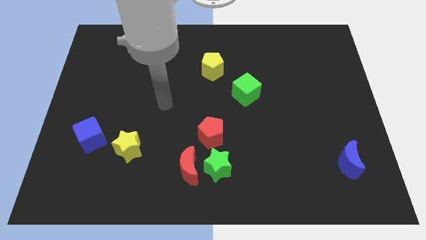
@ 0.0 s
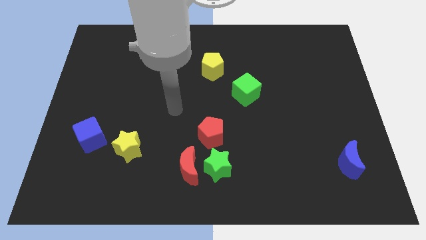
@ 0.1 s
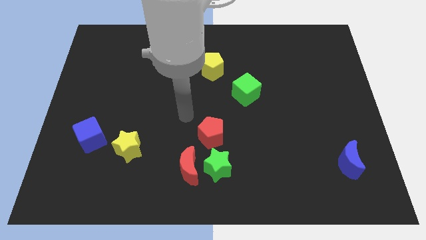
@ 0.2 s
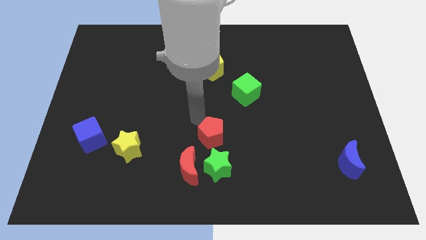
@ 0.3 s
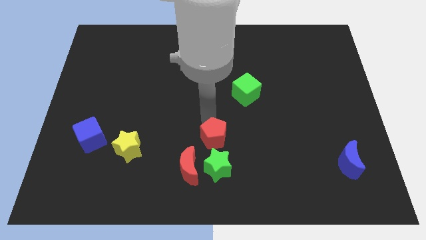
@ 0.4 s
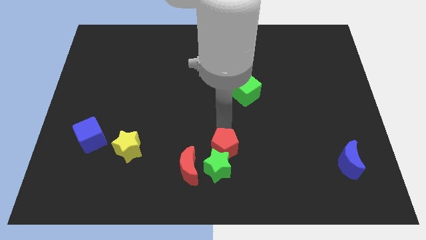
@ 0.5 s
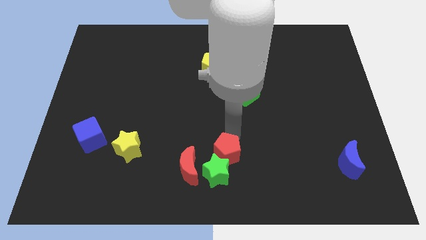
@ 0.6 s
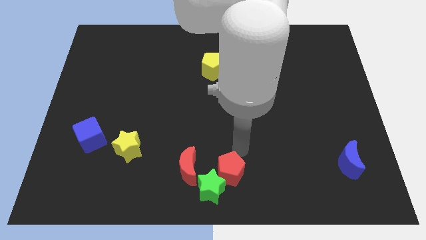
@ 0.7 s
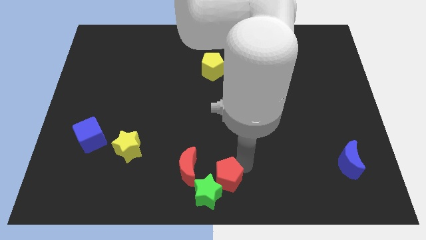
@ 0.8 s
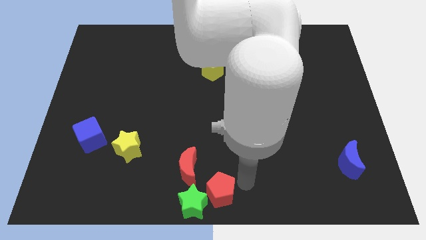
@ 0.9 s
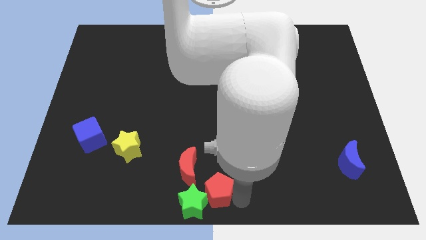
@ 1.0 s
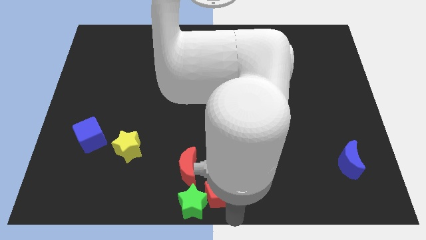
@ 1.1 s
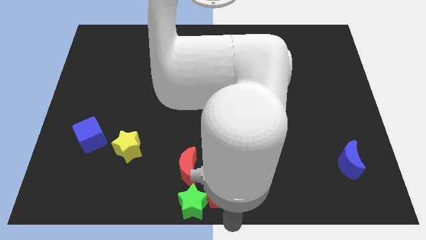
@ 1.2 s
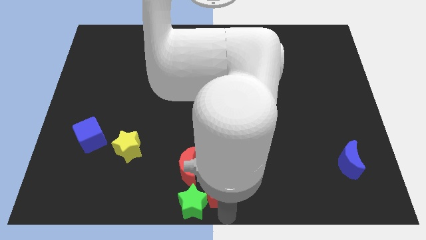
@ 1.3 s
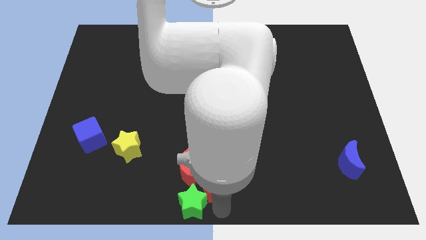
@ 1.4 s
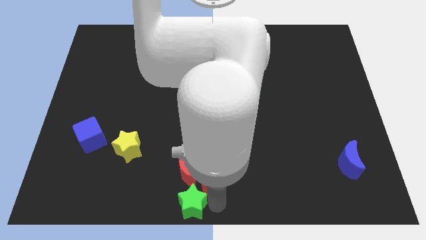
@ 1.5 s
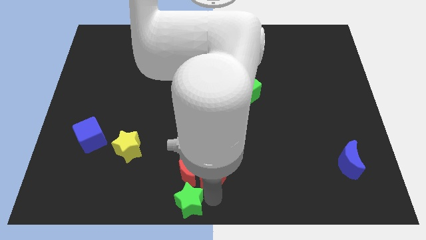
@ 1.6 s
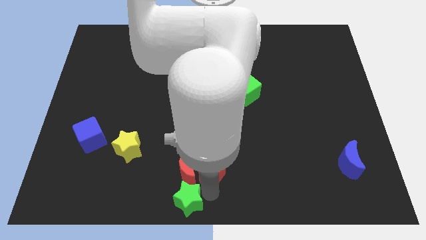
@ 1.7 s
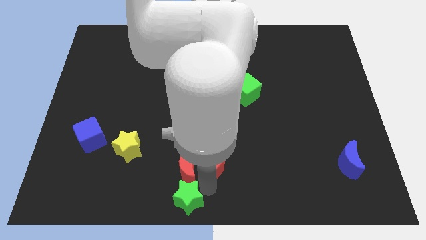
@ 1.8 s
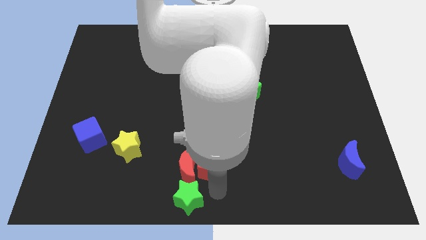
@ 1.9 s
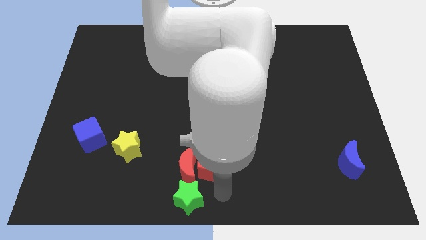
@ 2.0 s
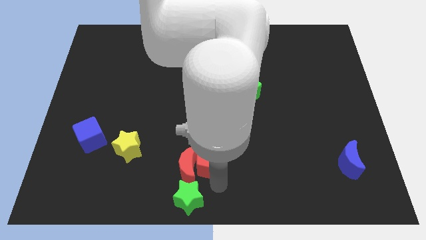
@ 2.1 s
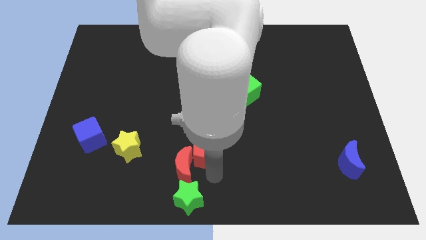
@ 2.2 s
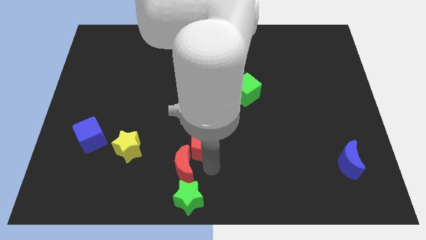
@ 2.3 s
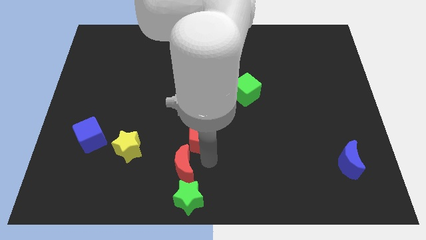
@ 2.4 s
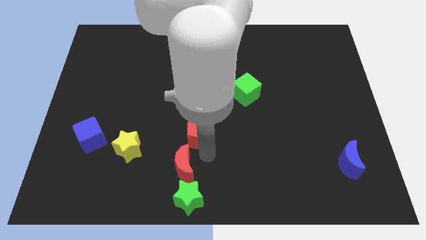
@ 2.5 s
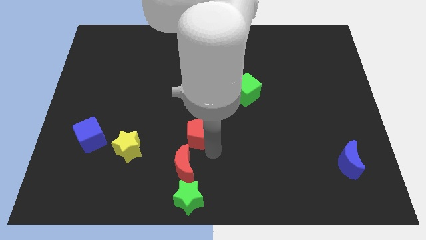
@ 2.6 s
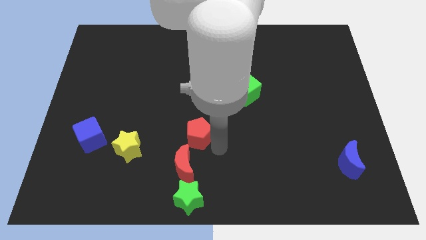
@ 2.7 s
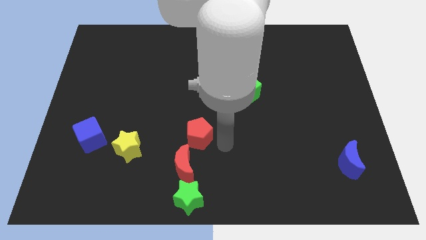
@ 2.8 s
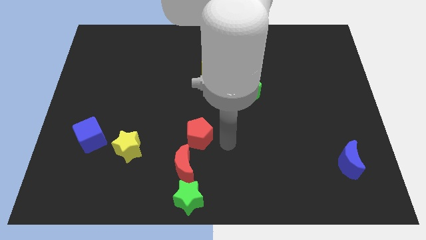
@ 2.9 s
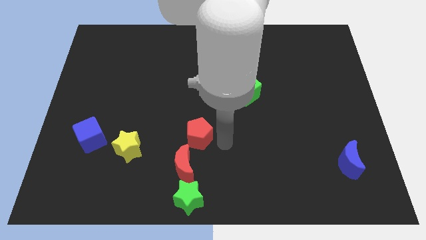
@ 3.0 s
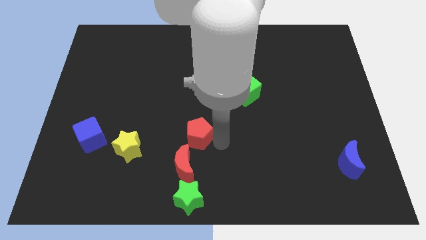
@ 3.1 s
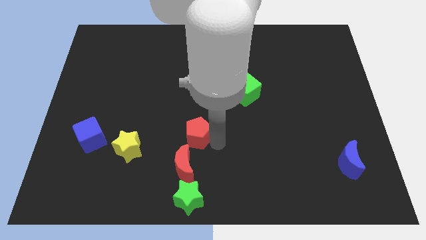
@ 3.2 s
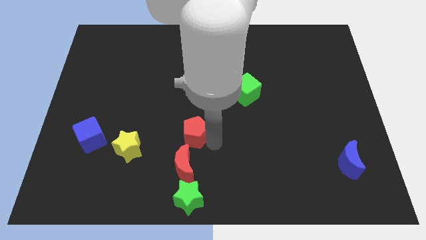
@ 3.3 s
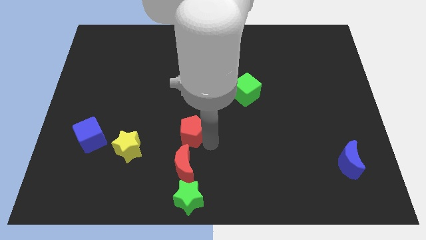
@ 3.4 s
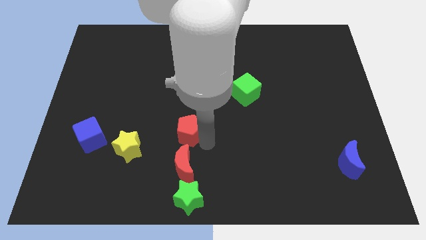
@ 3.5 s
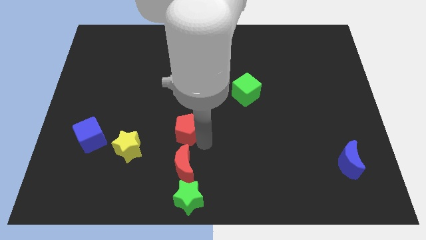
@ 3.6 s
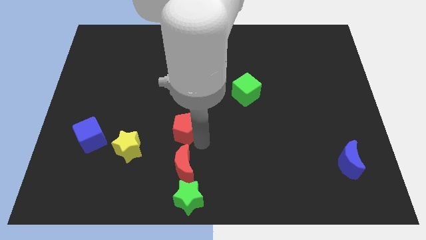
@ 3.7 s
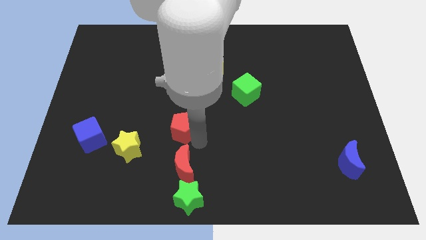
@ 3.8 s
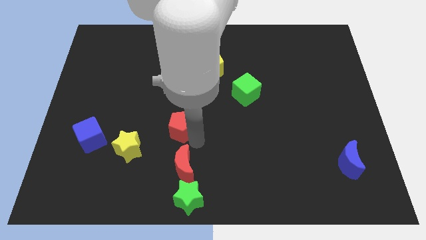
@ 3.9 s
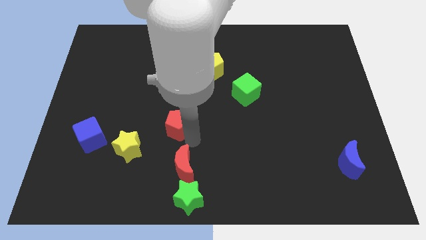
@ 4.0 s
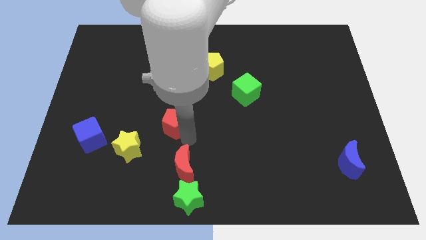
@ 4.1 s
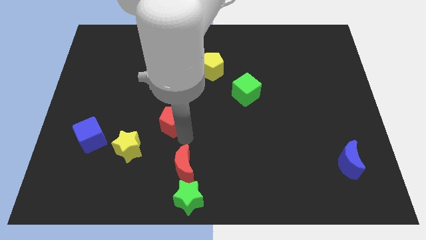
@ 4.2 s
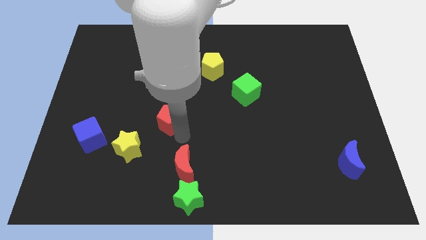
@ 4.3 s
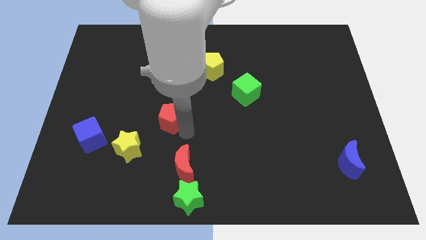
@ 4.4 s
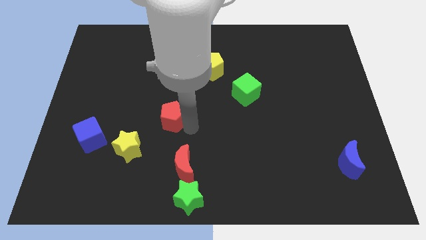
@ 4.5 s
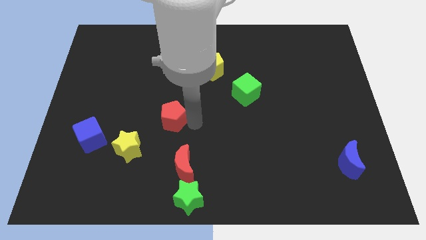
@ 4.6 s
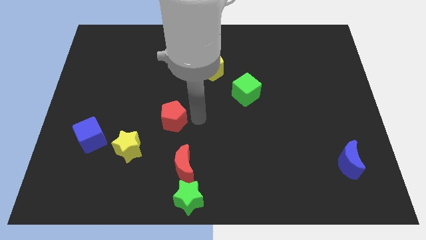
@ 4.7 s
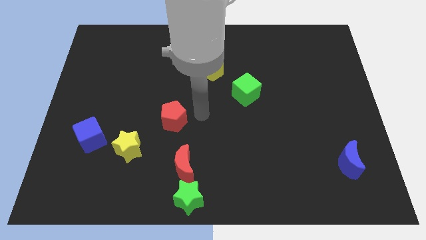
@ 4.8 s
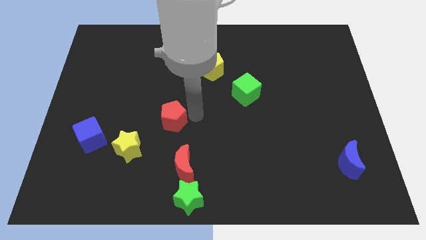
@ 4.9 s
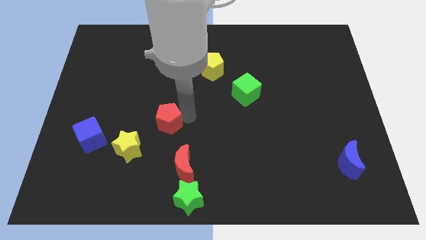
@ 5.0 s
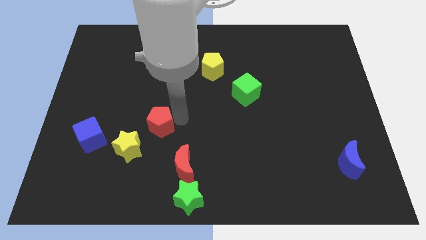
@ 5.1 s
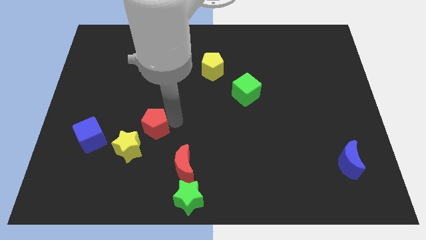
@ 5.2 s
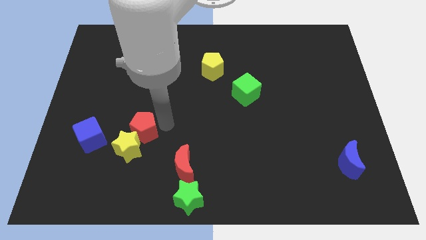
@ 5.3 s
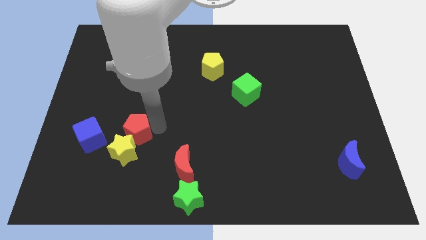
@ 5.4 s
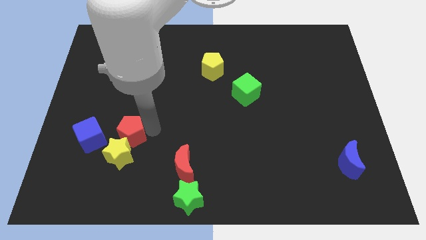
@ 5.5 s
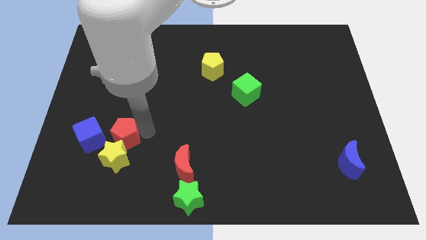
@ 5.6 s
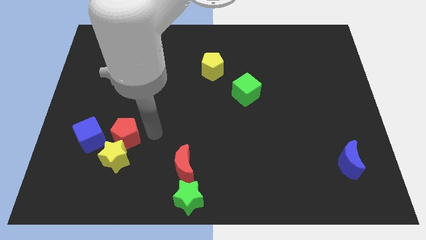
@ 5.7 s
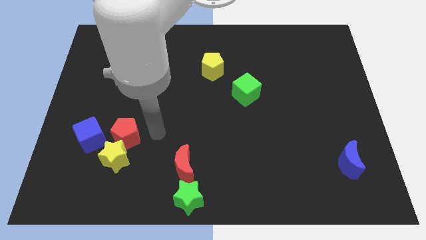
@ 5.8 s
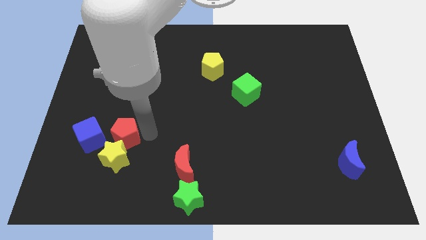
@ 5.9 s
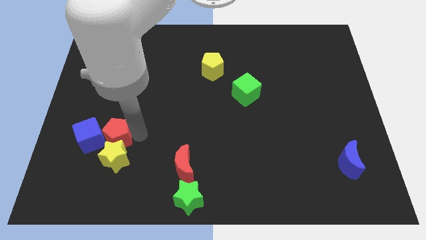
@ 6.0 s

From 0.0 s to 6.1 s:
push the red pentagon next to the blue cube
